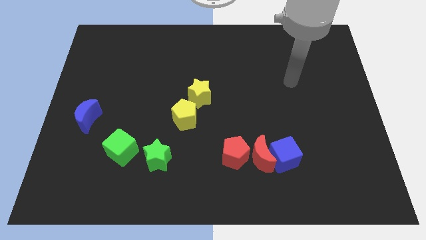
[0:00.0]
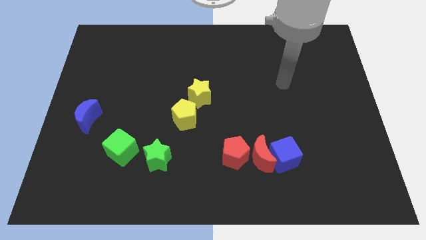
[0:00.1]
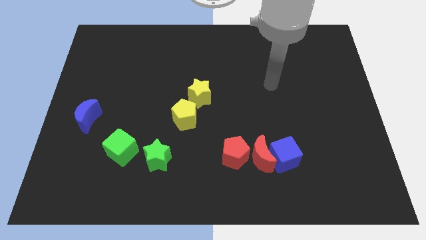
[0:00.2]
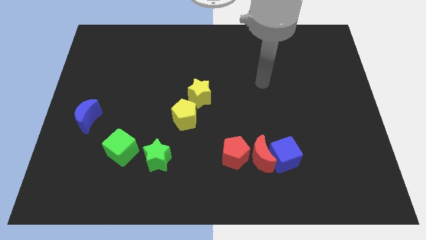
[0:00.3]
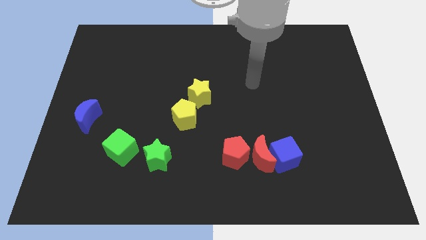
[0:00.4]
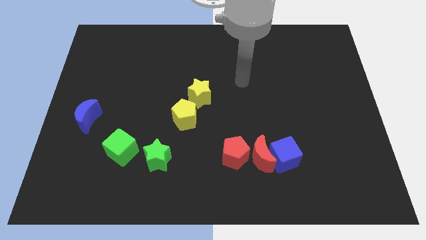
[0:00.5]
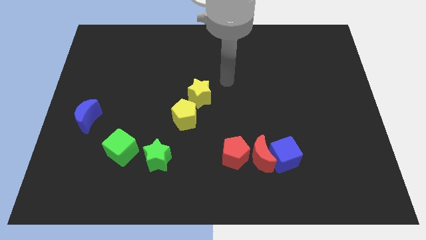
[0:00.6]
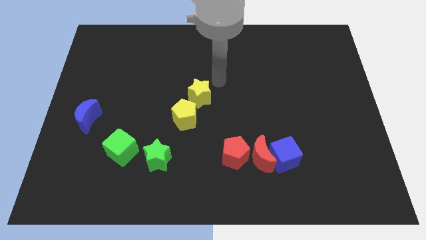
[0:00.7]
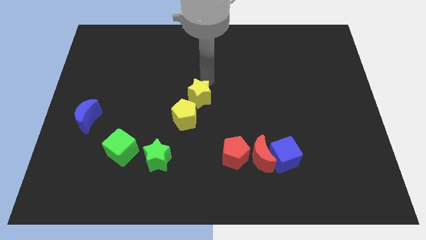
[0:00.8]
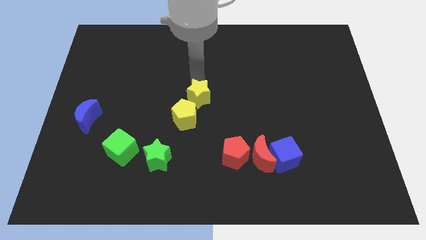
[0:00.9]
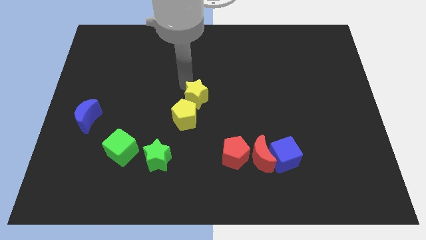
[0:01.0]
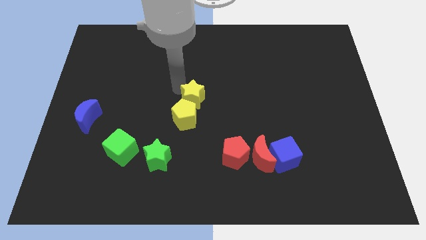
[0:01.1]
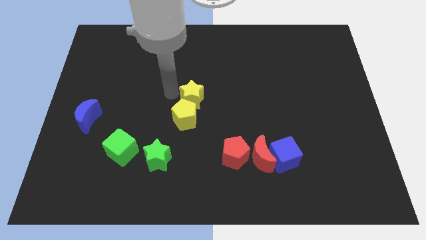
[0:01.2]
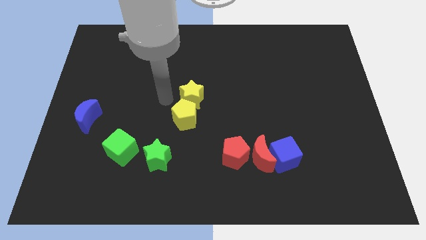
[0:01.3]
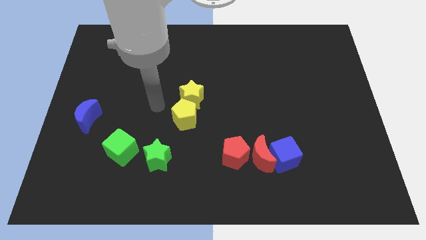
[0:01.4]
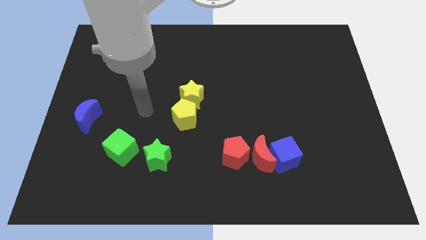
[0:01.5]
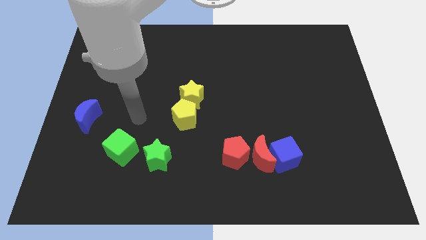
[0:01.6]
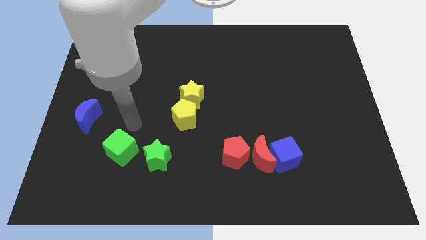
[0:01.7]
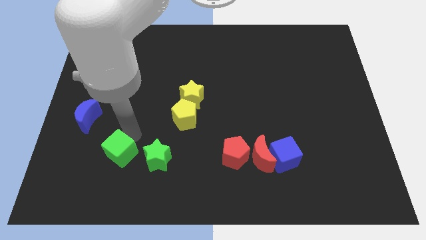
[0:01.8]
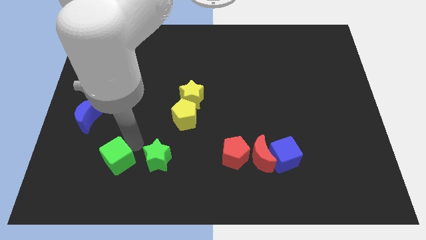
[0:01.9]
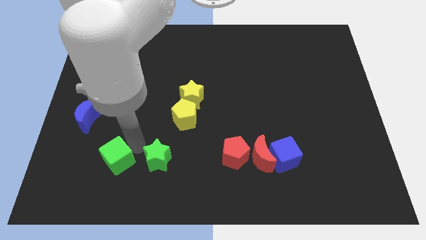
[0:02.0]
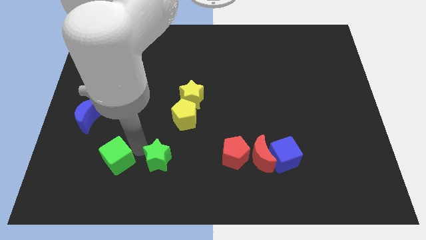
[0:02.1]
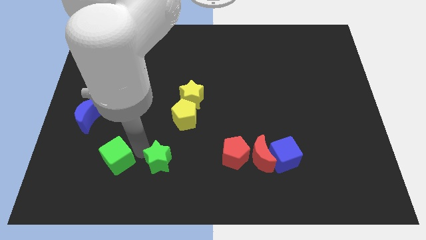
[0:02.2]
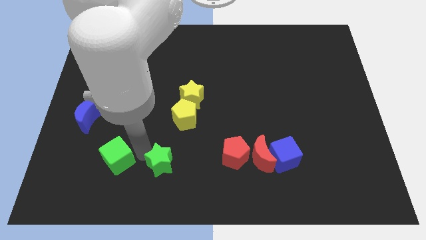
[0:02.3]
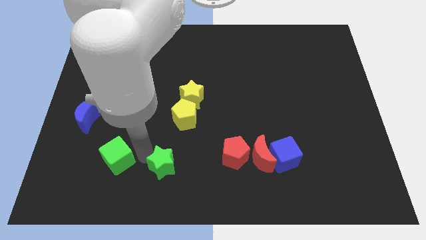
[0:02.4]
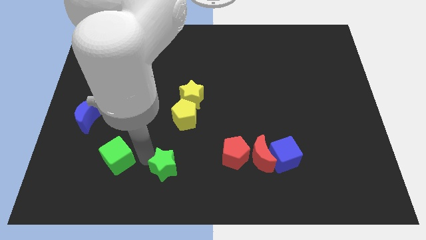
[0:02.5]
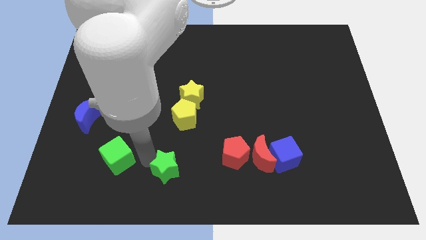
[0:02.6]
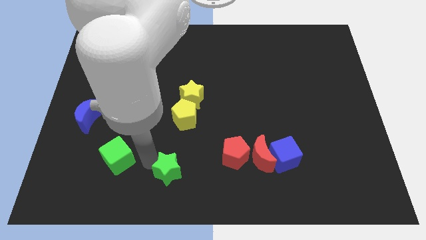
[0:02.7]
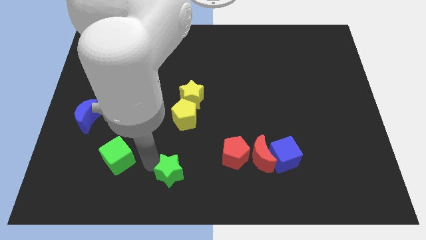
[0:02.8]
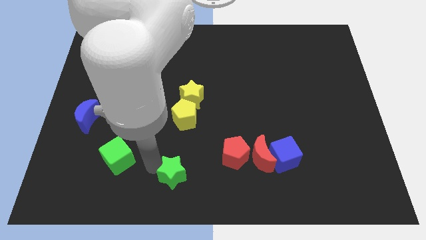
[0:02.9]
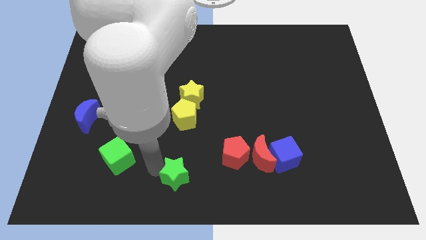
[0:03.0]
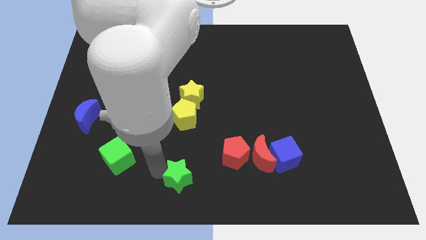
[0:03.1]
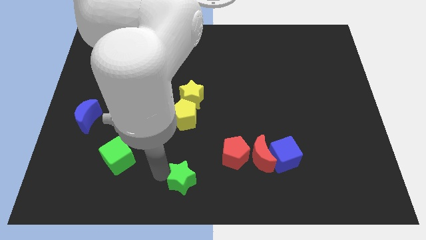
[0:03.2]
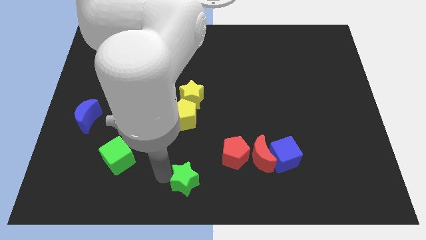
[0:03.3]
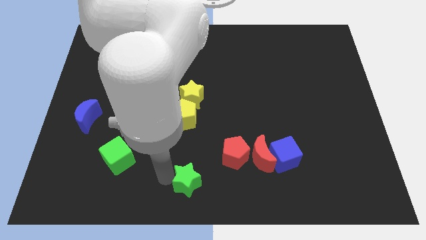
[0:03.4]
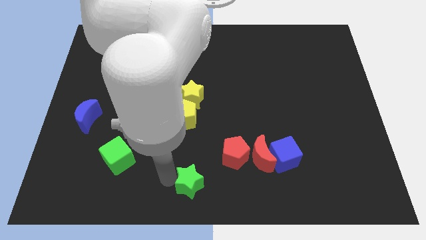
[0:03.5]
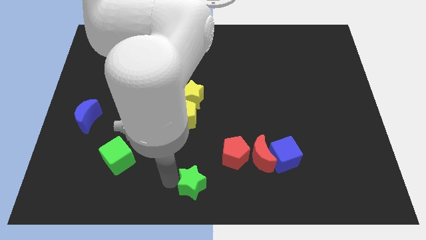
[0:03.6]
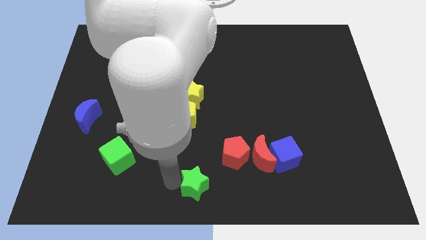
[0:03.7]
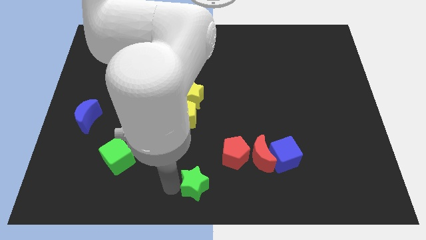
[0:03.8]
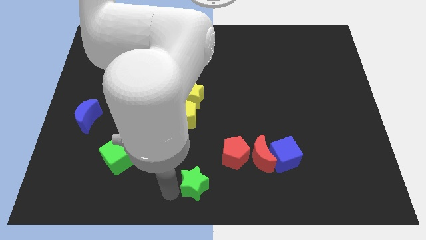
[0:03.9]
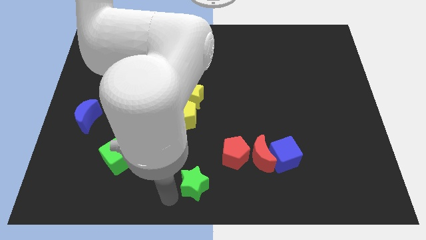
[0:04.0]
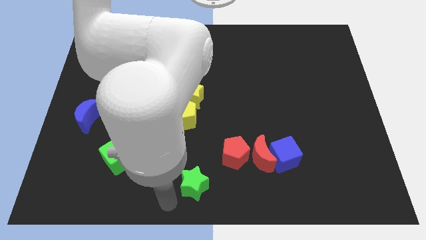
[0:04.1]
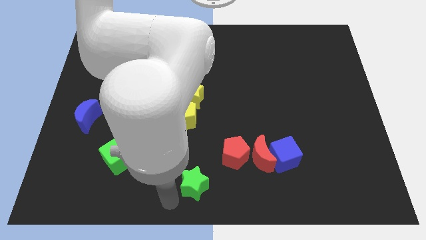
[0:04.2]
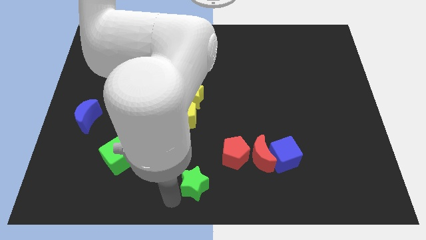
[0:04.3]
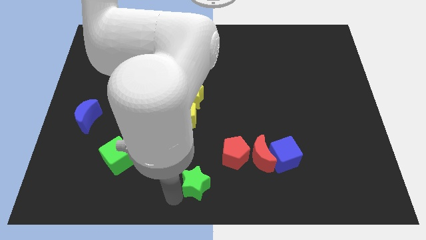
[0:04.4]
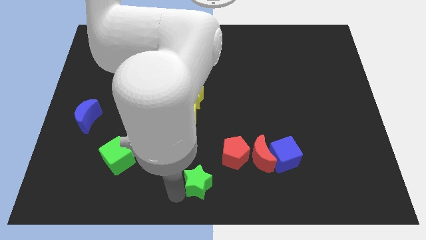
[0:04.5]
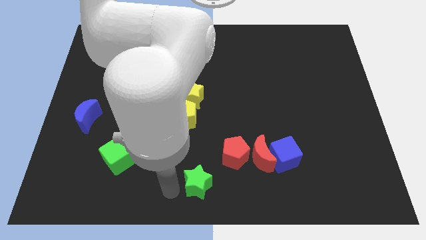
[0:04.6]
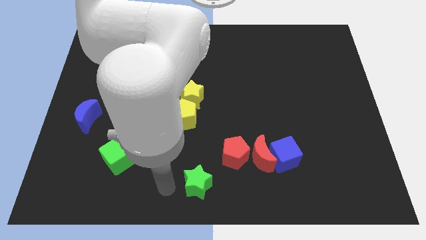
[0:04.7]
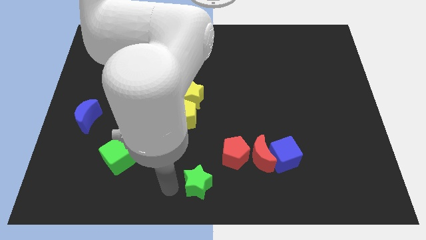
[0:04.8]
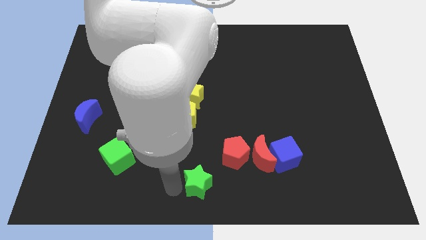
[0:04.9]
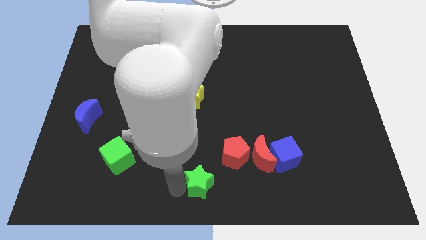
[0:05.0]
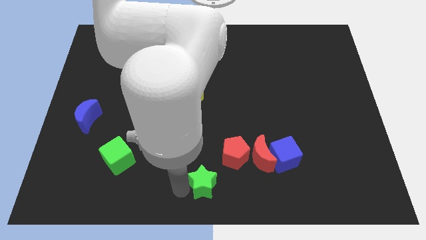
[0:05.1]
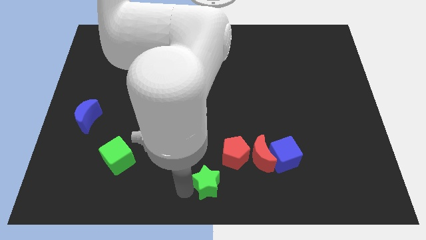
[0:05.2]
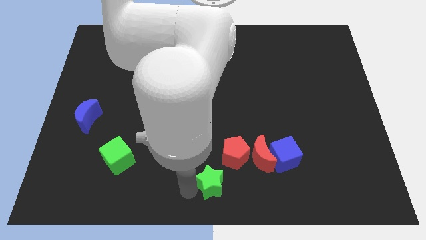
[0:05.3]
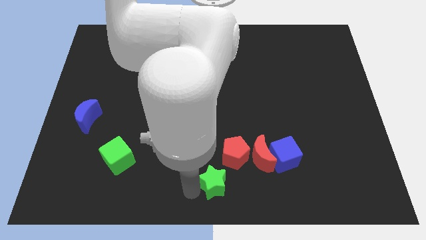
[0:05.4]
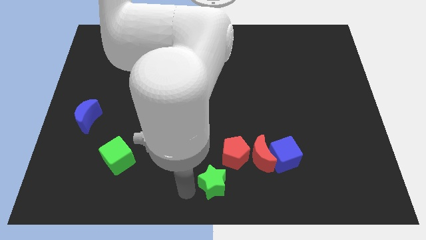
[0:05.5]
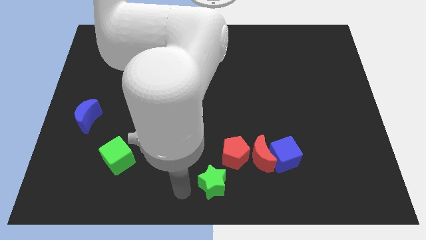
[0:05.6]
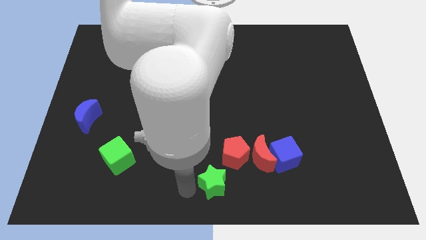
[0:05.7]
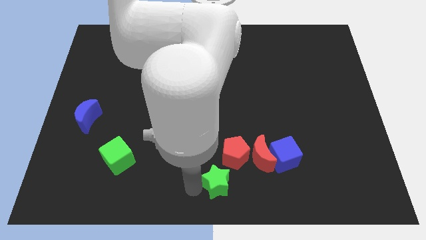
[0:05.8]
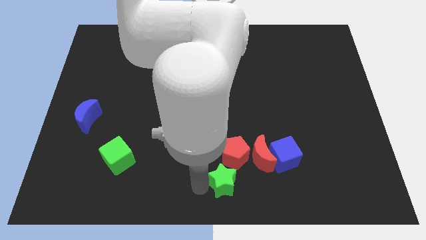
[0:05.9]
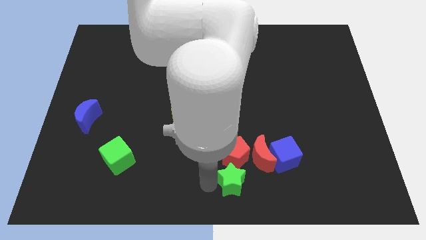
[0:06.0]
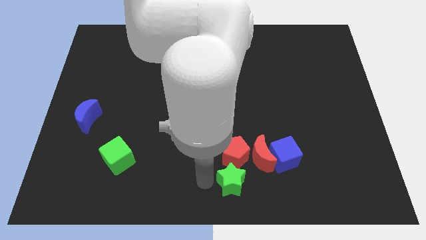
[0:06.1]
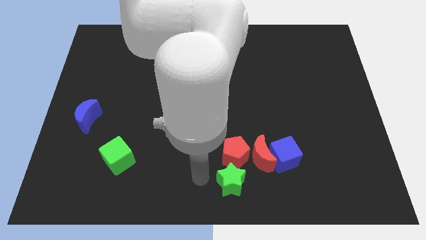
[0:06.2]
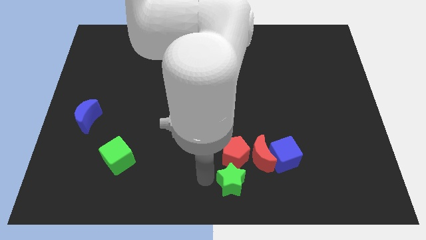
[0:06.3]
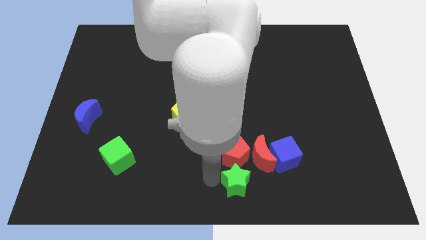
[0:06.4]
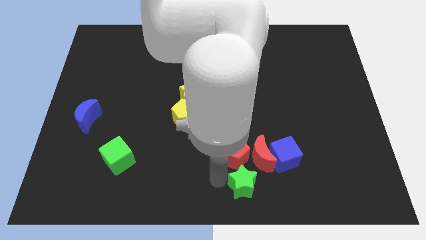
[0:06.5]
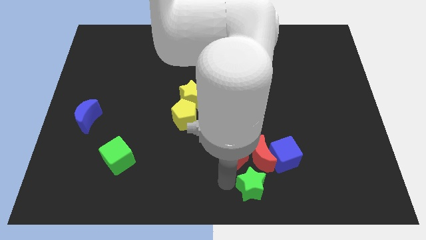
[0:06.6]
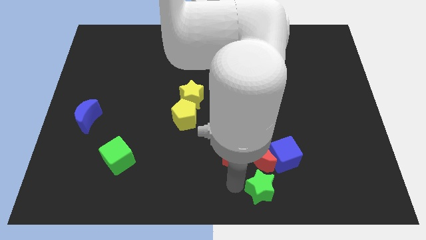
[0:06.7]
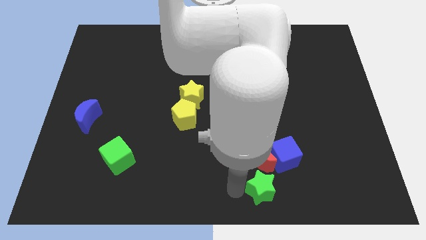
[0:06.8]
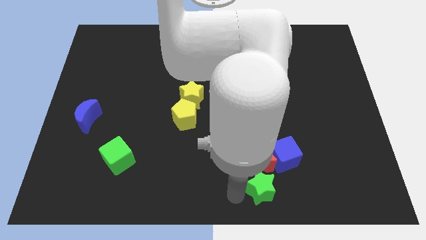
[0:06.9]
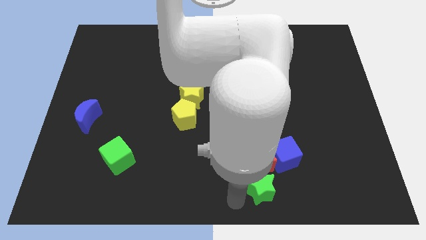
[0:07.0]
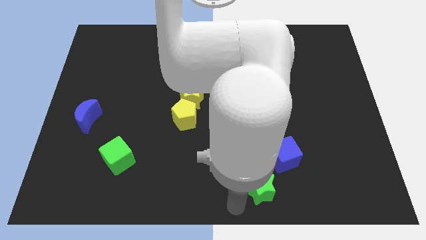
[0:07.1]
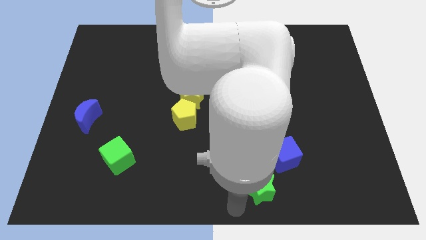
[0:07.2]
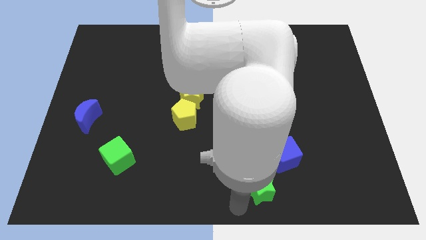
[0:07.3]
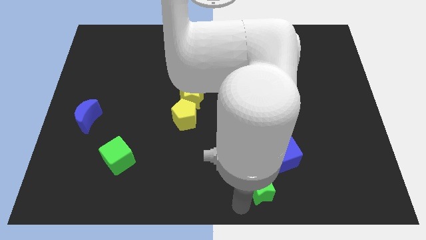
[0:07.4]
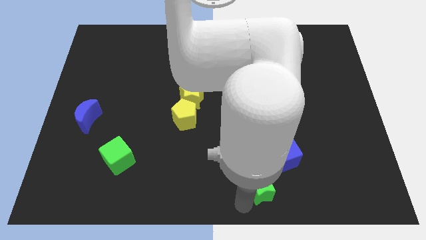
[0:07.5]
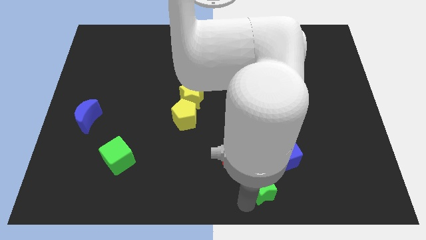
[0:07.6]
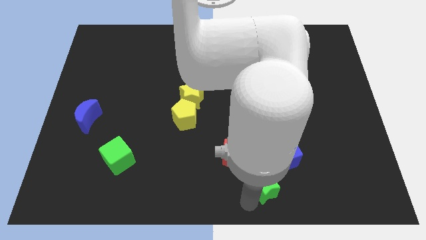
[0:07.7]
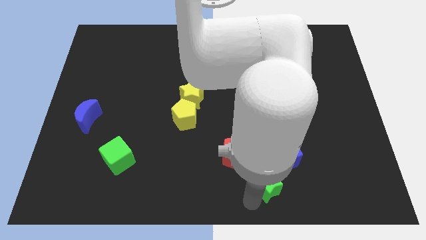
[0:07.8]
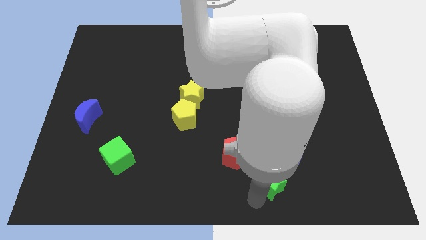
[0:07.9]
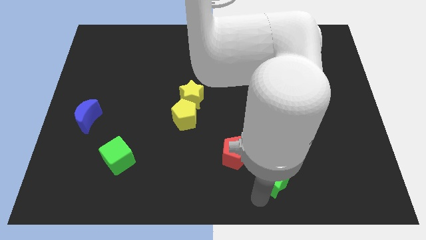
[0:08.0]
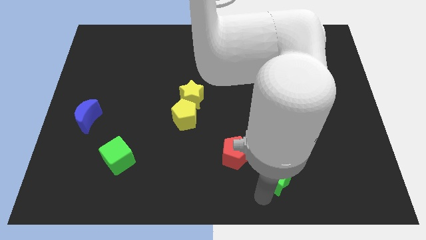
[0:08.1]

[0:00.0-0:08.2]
push the green star to the blue cube
